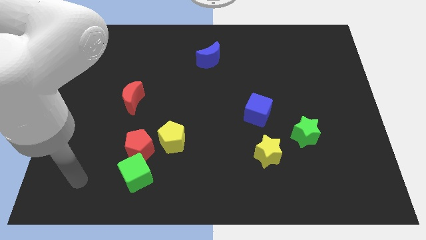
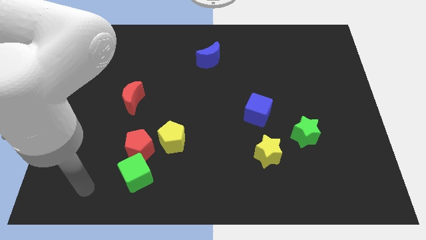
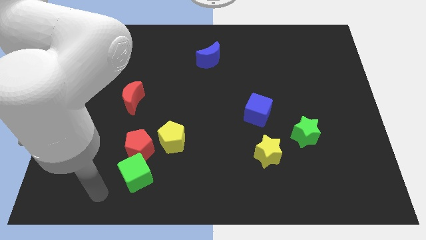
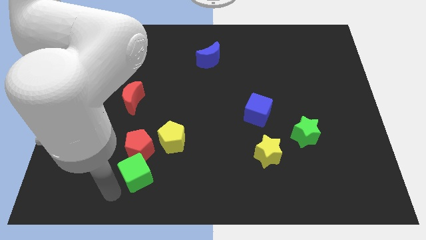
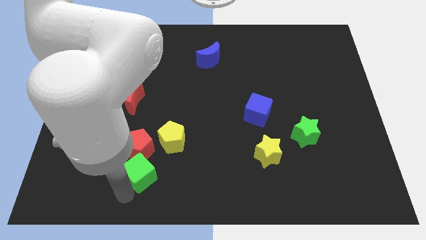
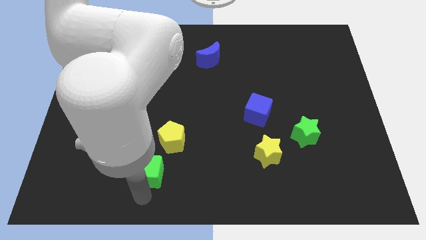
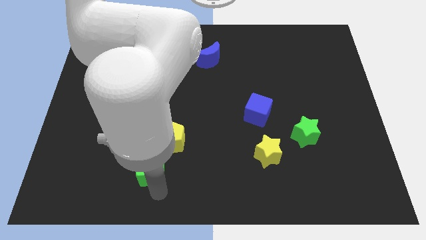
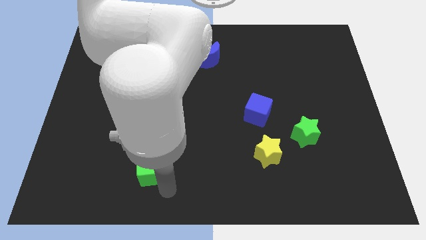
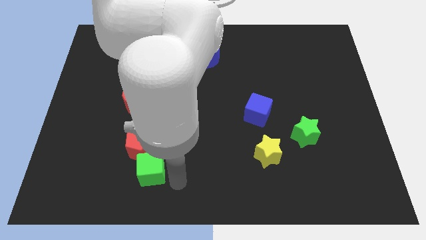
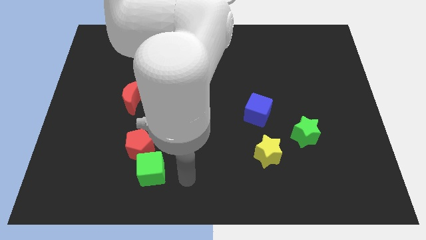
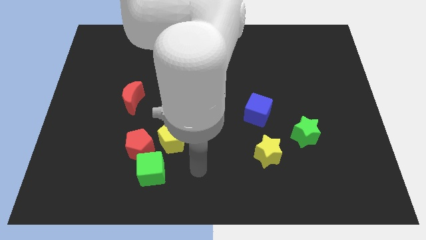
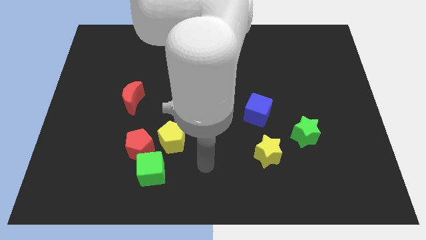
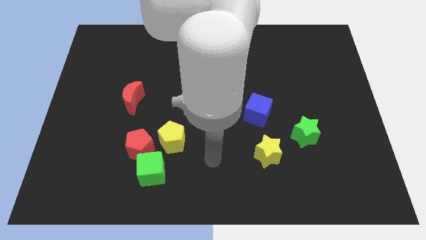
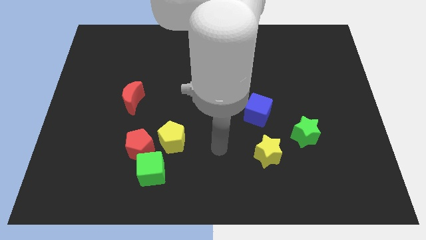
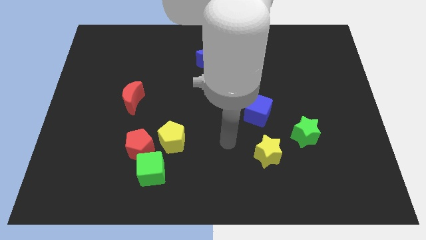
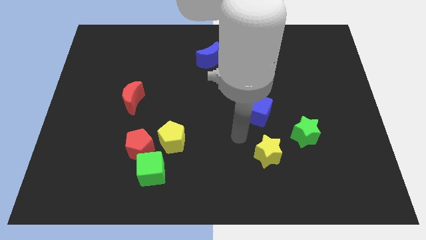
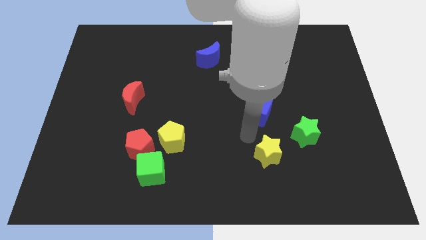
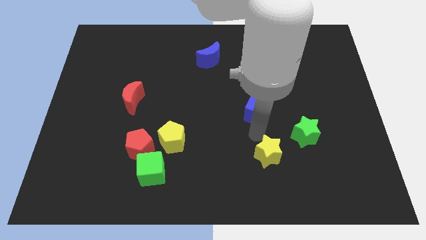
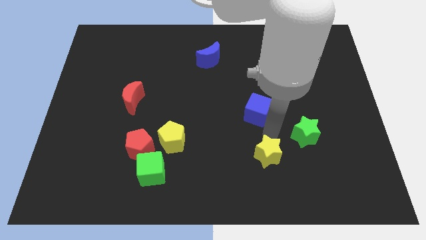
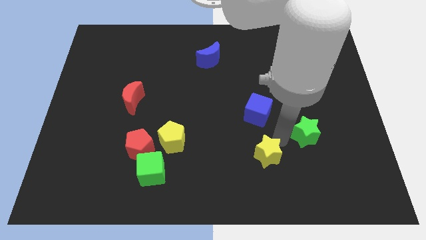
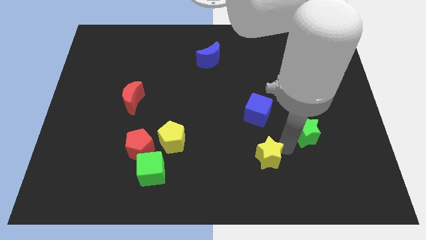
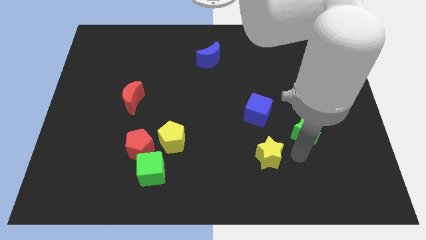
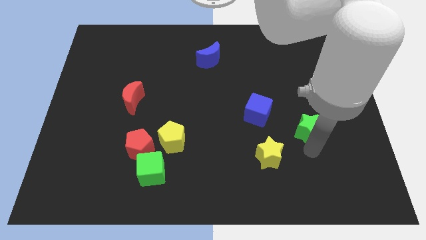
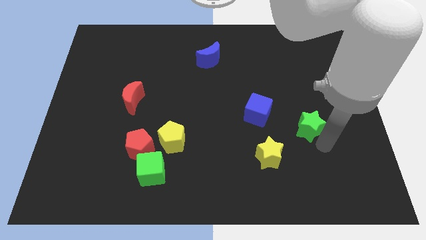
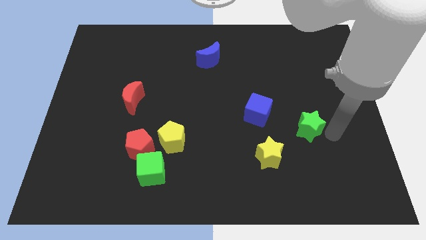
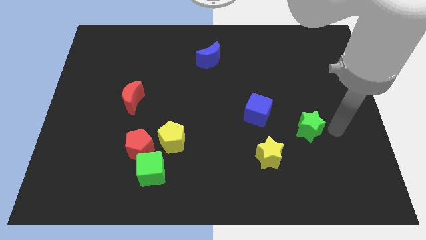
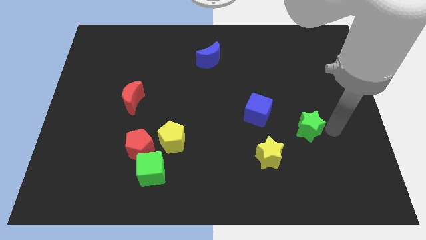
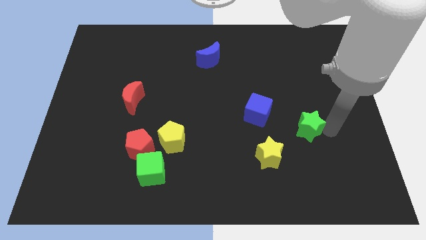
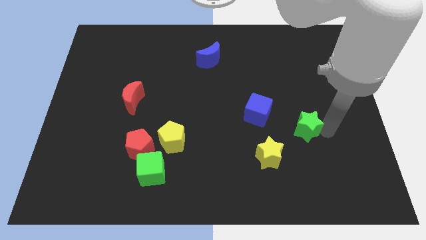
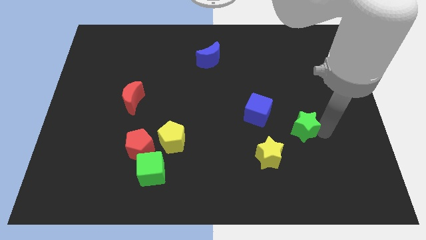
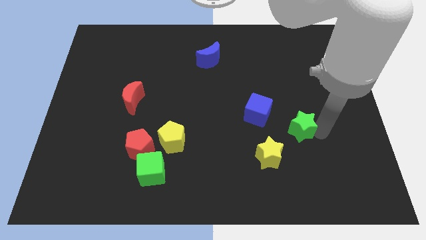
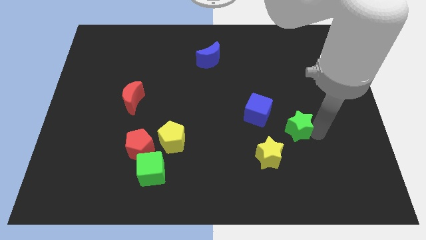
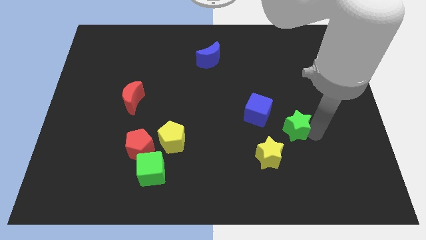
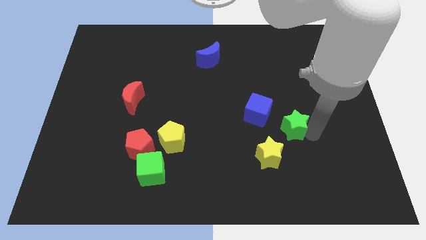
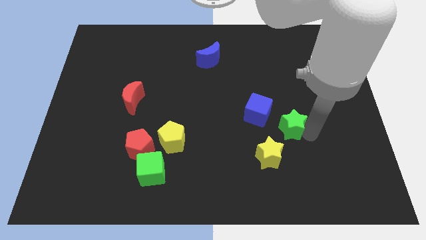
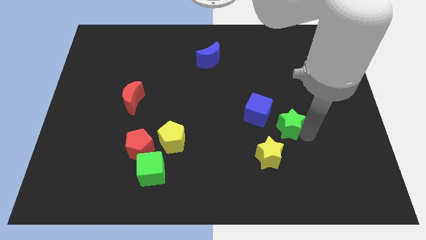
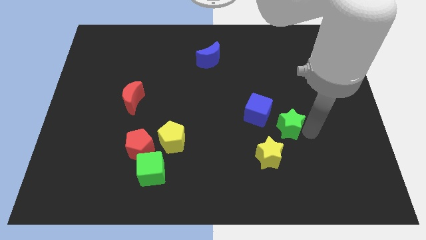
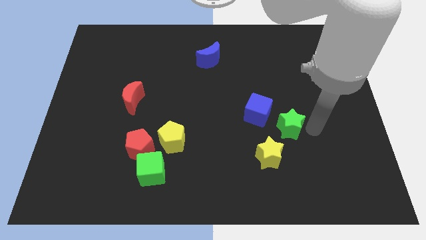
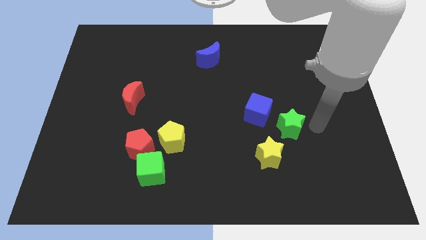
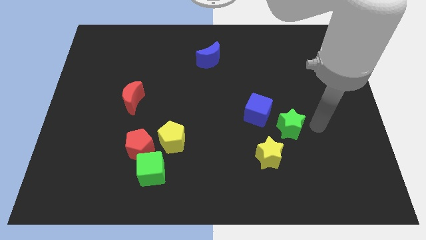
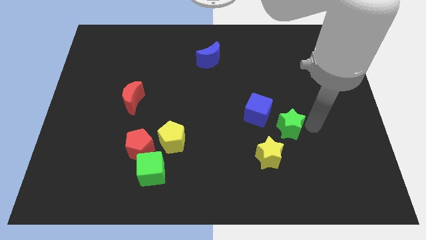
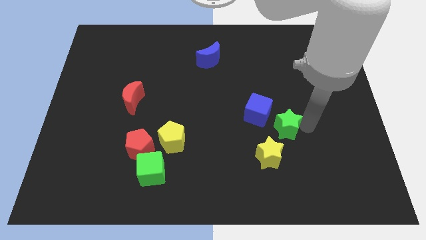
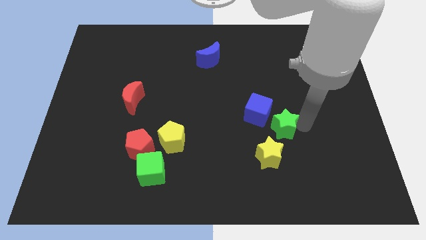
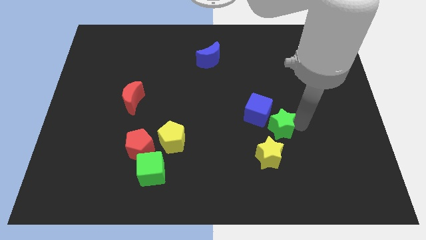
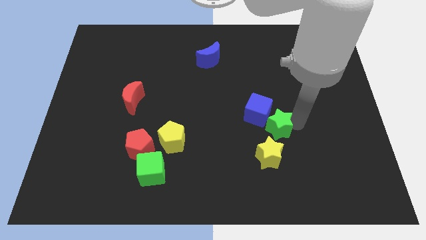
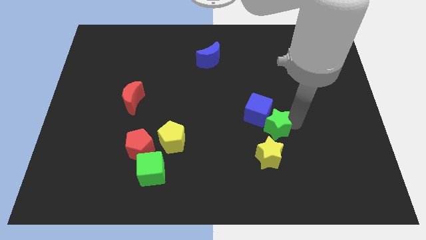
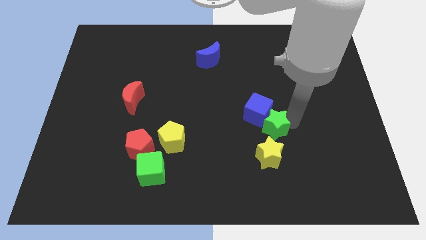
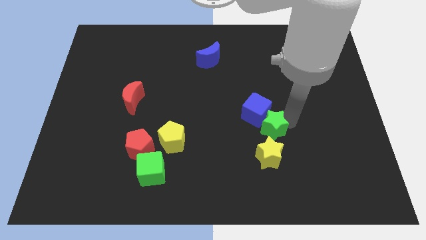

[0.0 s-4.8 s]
slightly move the green star to the left

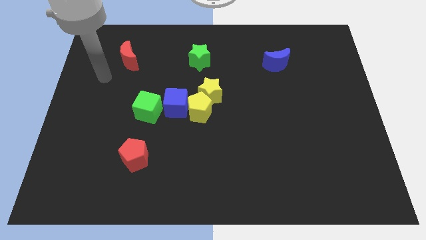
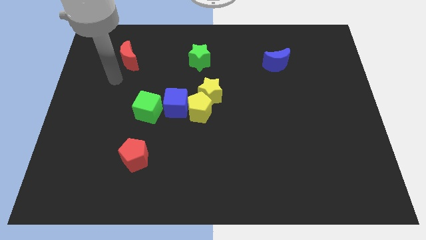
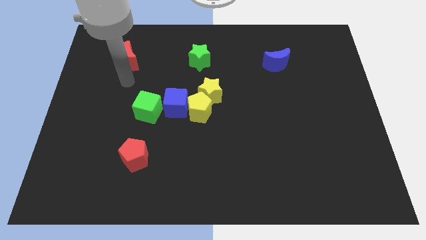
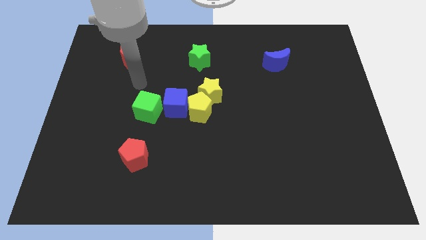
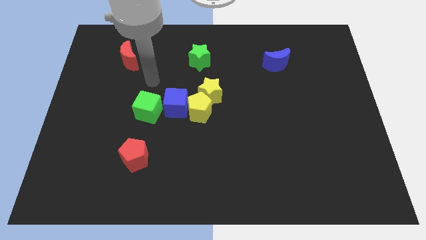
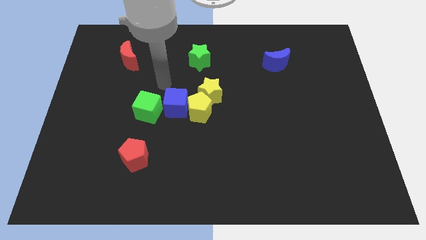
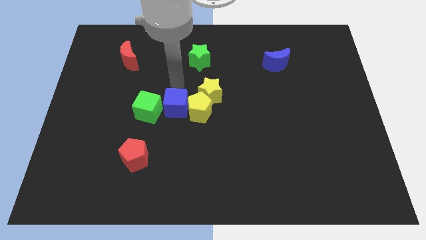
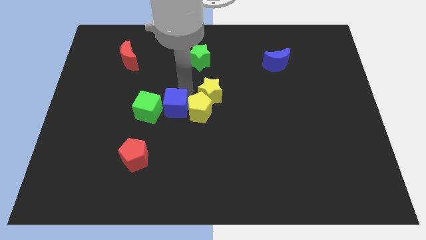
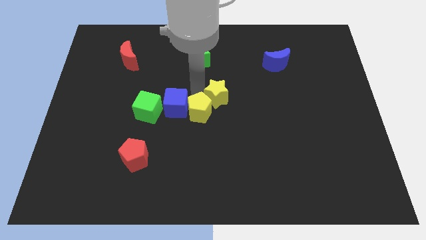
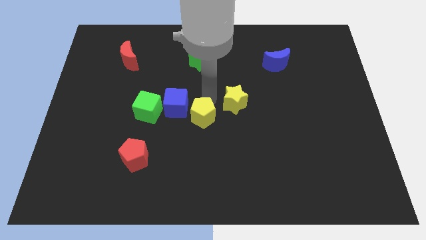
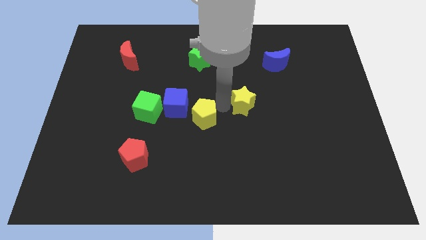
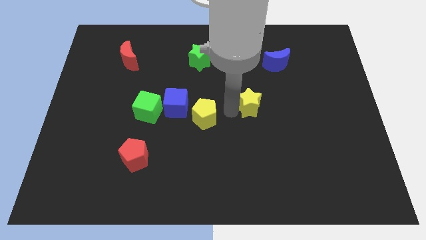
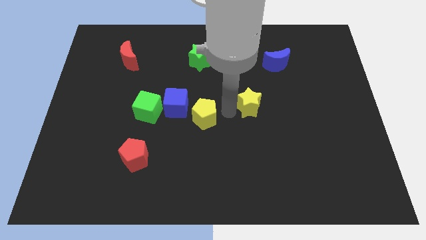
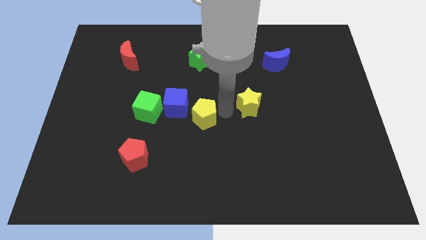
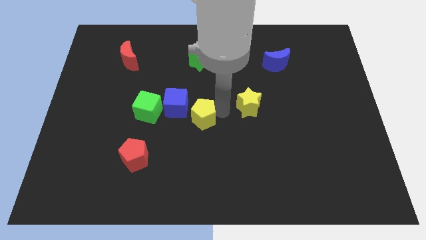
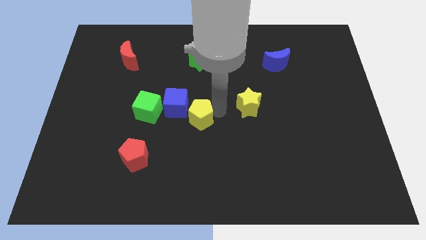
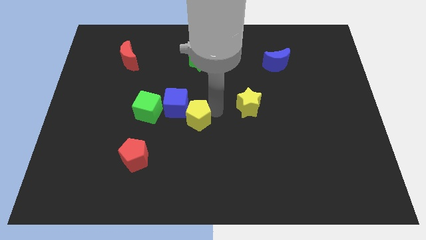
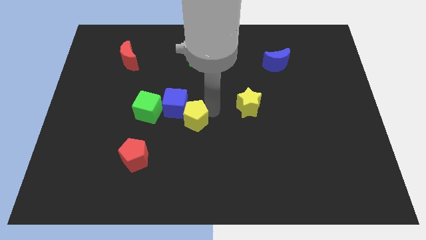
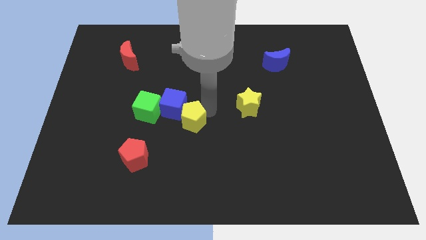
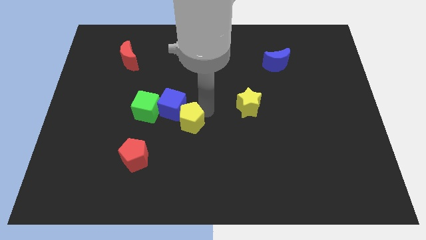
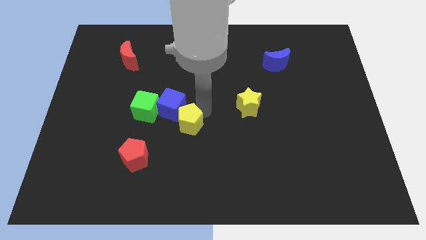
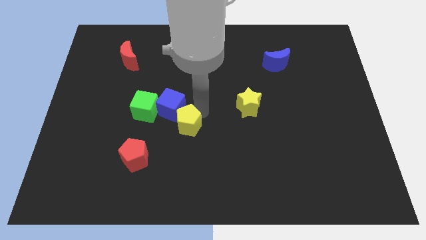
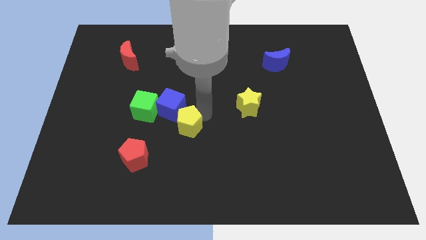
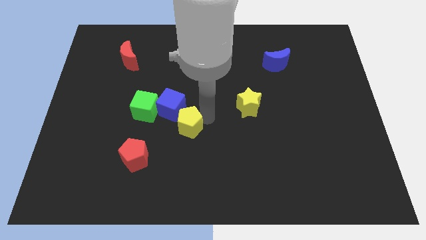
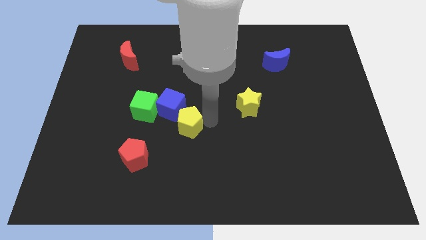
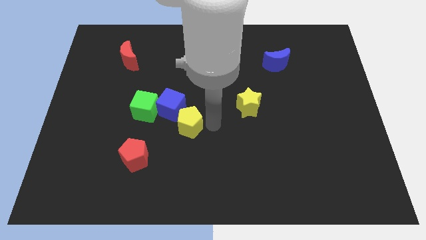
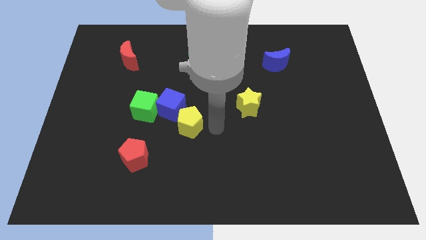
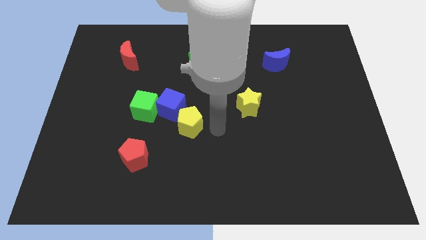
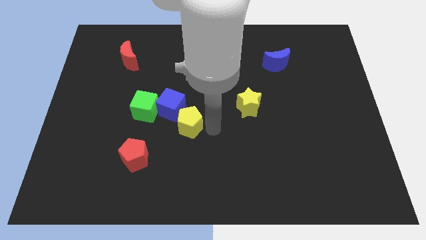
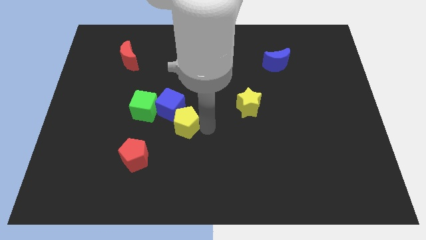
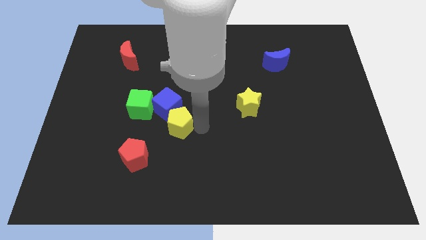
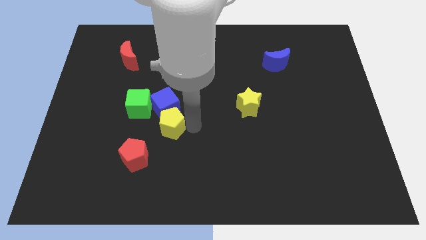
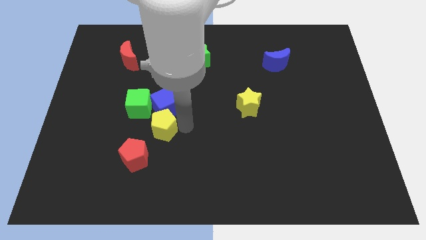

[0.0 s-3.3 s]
move the yellow pentagon to the left a little
